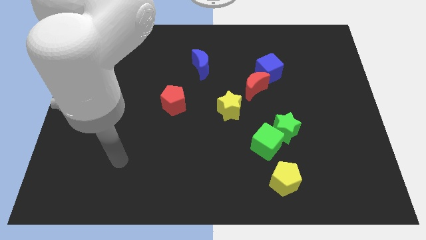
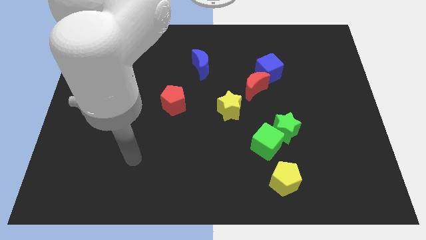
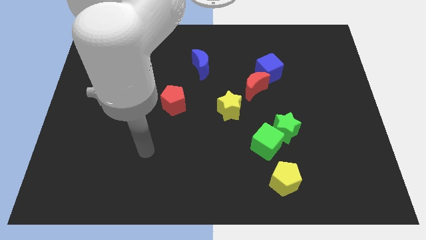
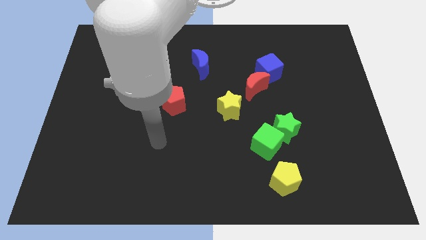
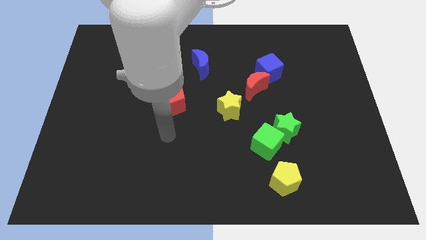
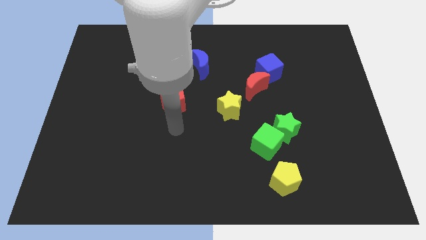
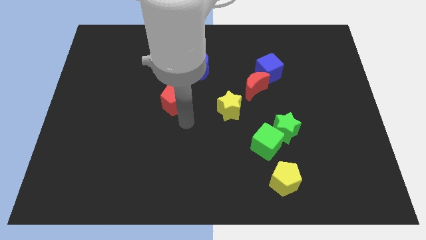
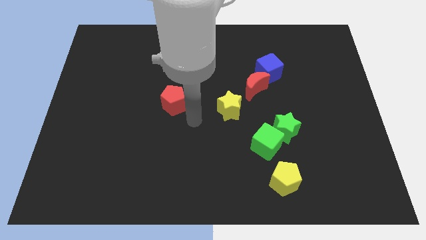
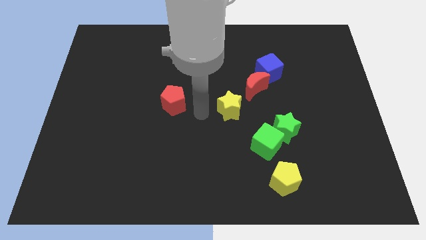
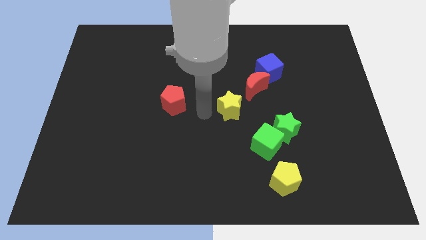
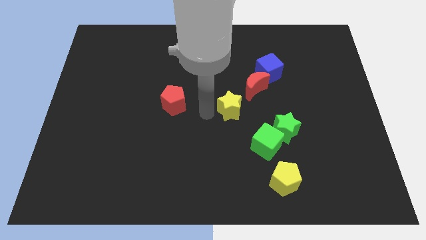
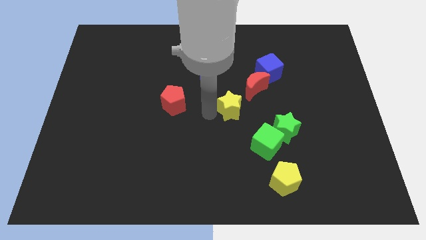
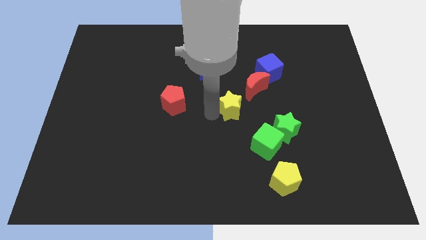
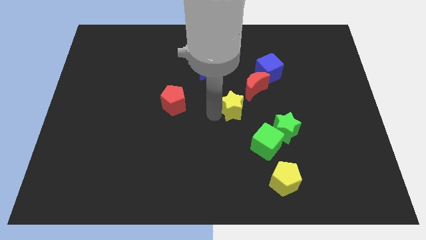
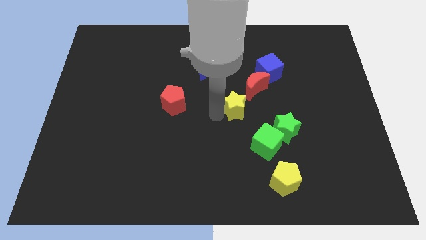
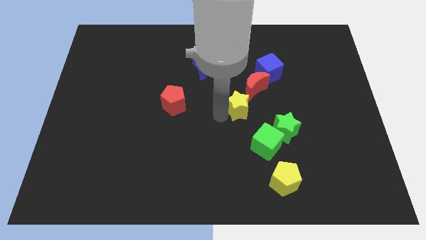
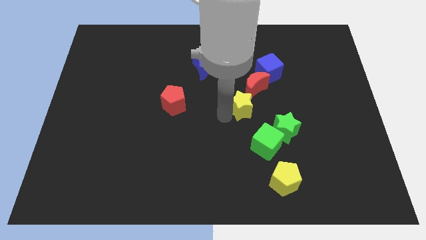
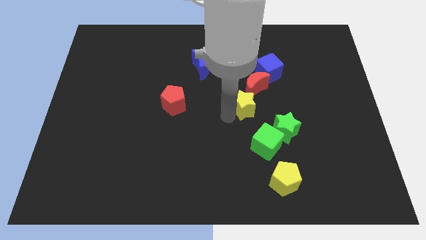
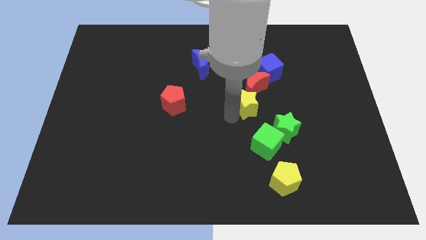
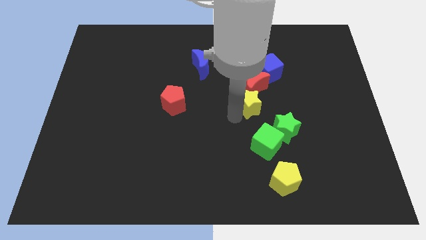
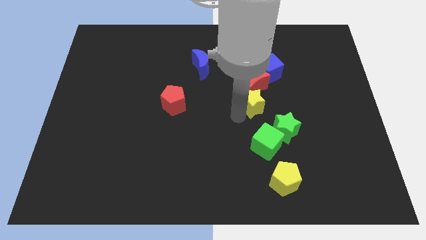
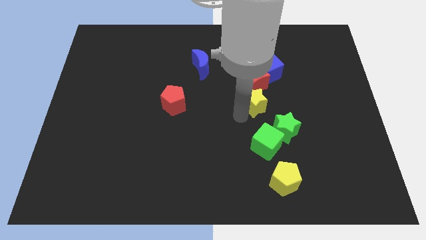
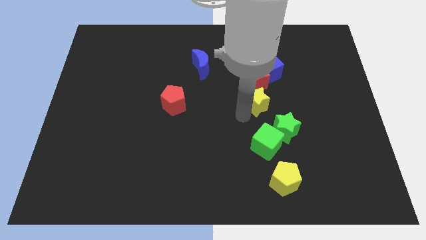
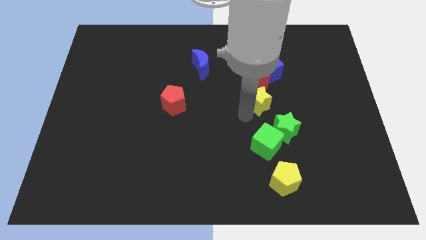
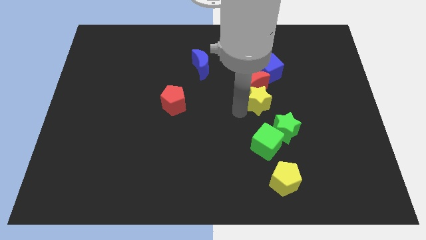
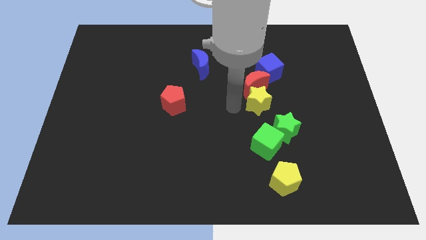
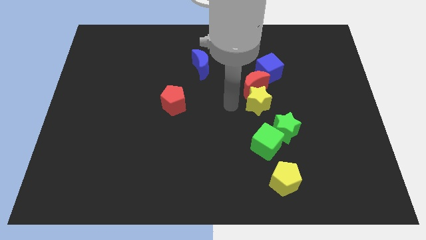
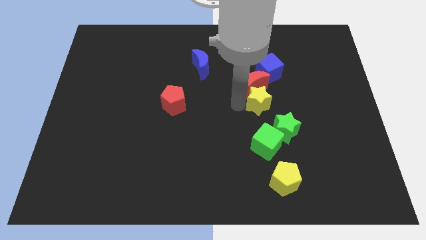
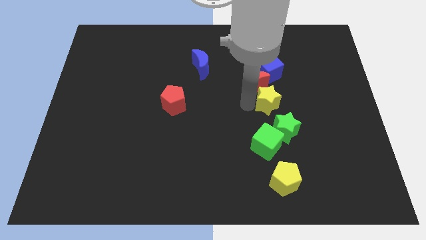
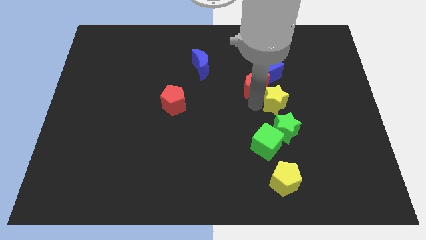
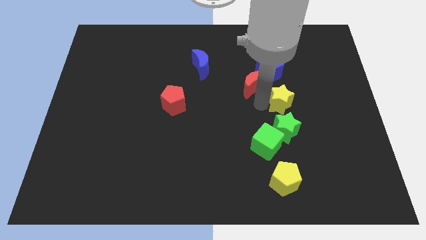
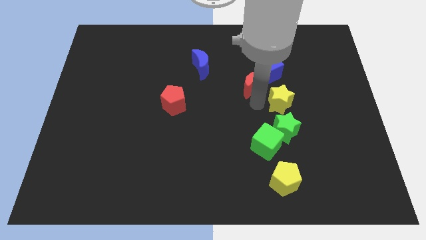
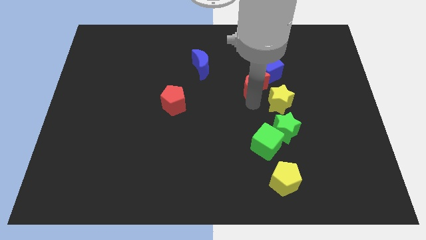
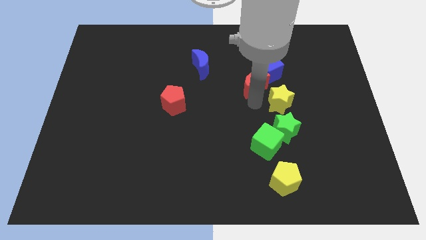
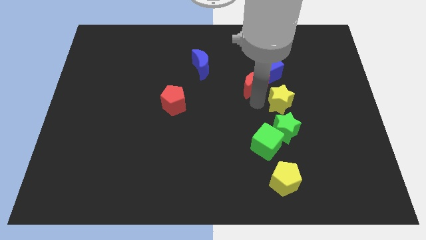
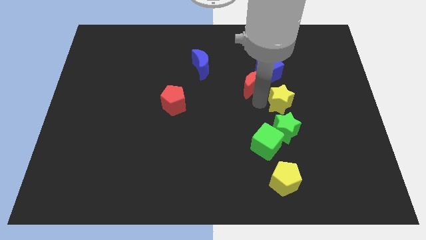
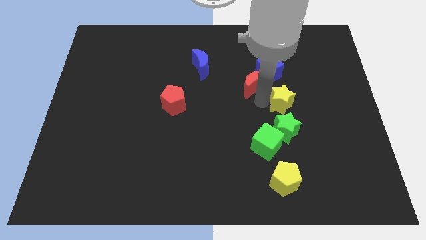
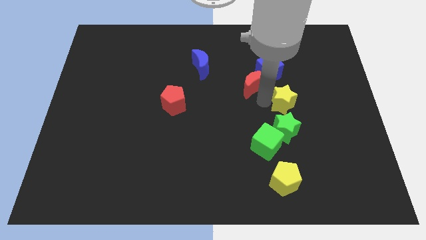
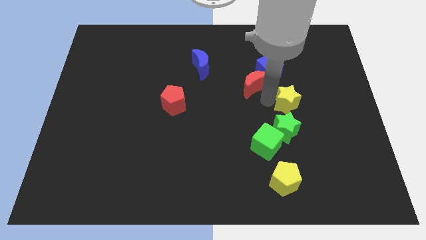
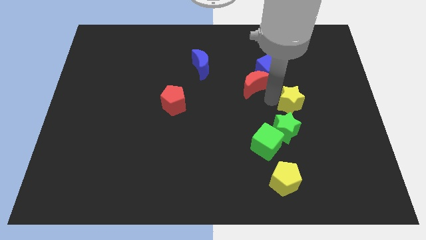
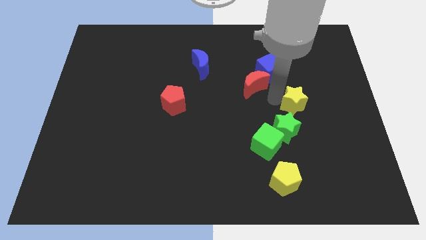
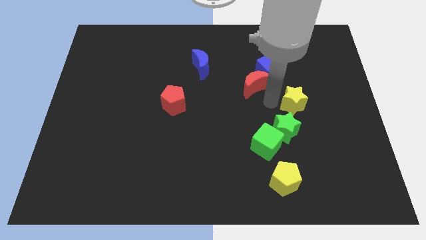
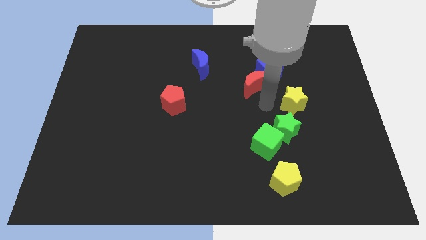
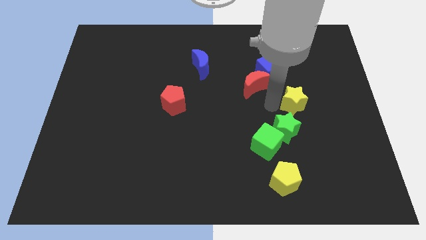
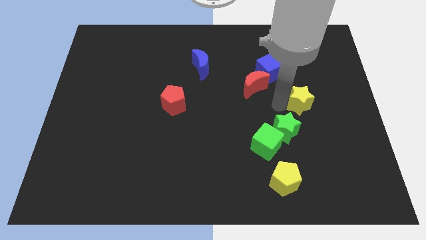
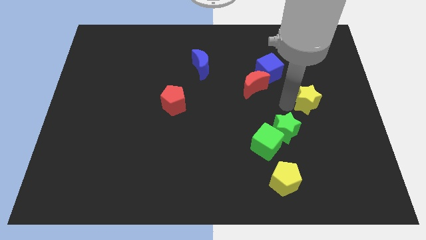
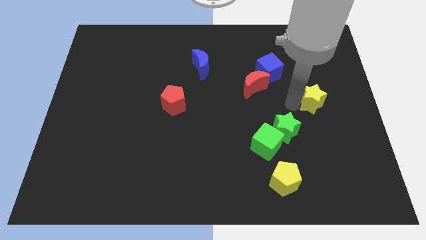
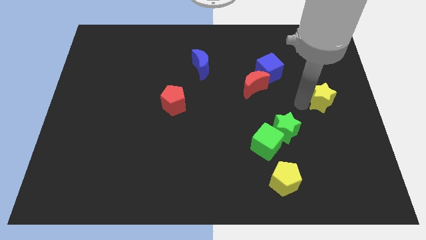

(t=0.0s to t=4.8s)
move the yellow star to the right side of the board

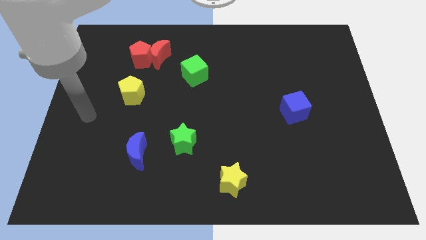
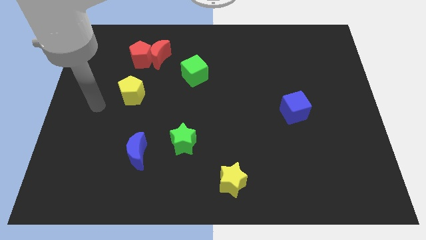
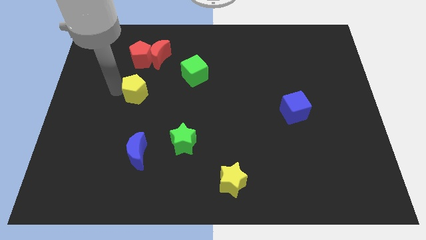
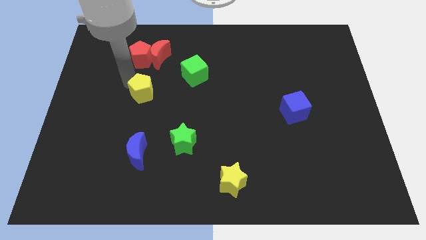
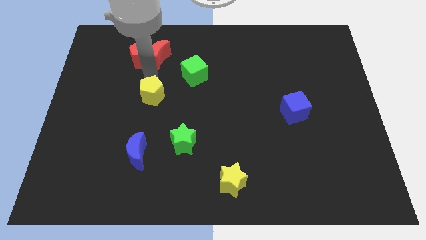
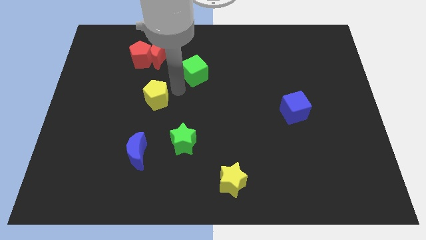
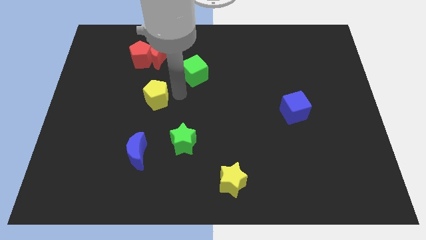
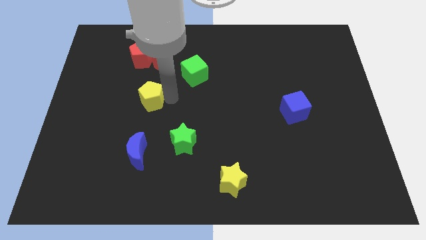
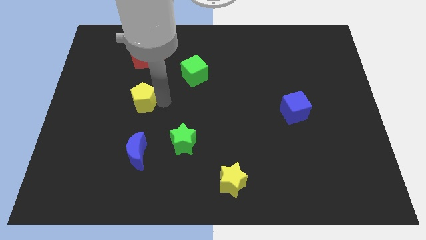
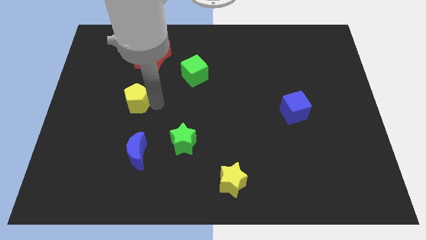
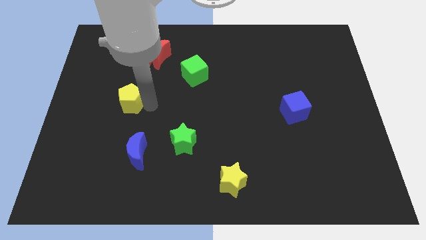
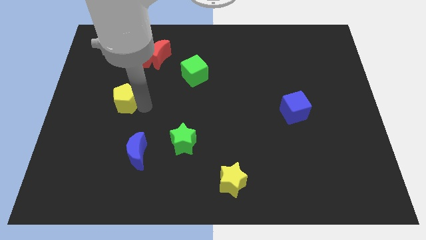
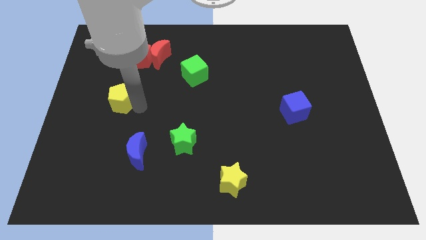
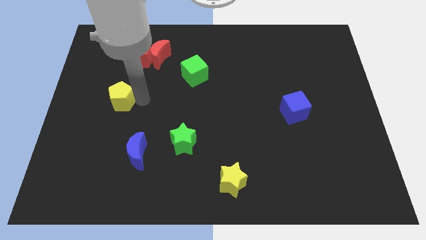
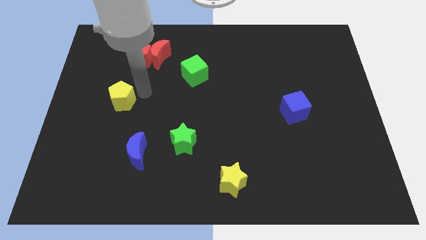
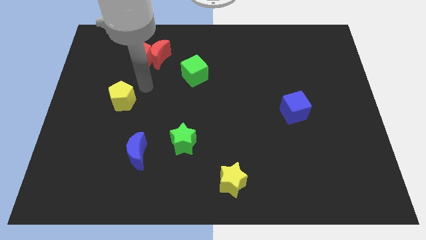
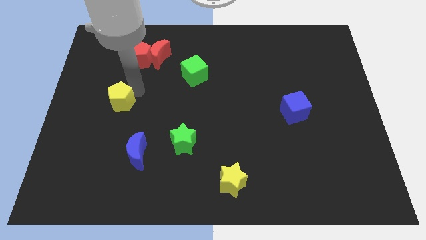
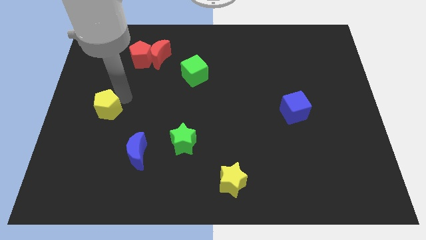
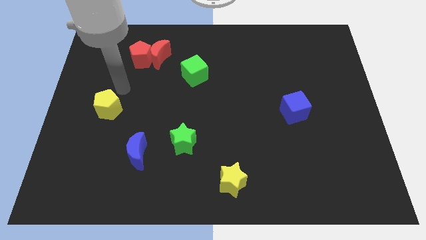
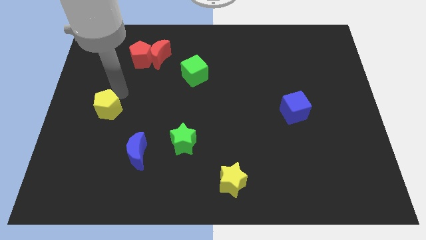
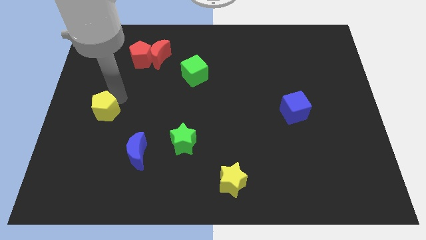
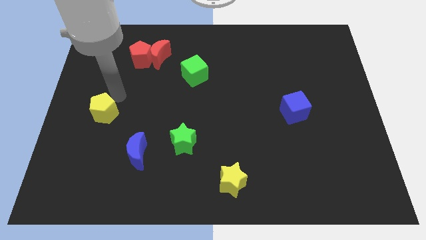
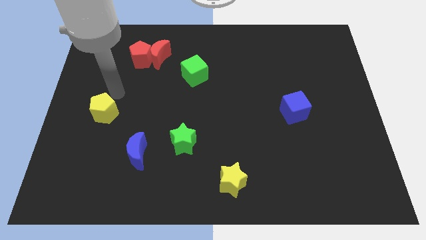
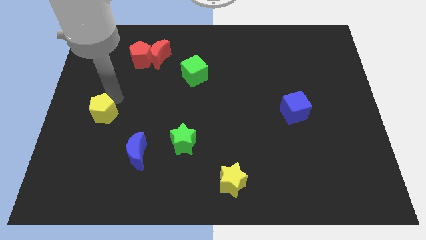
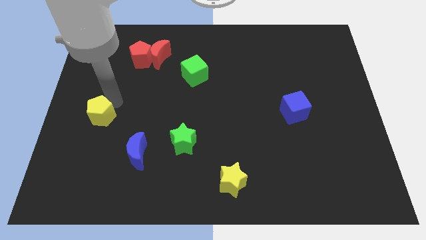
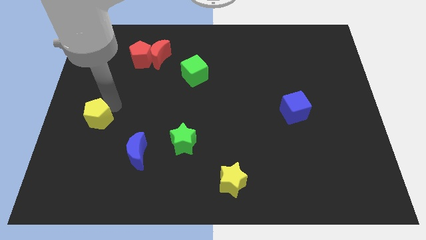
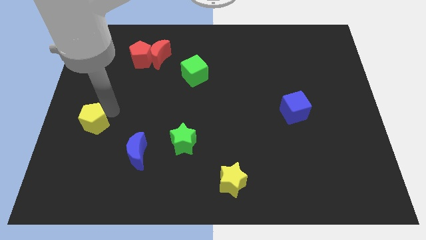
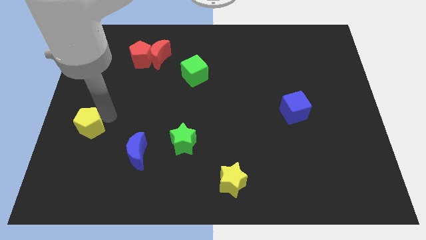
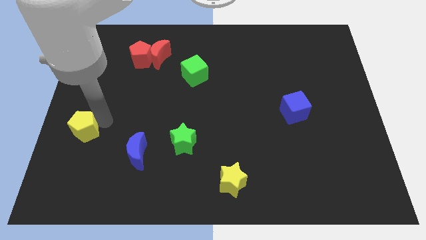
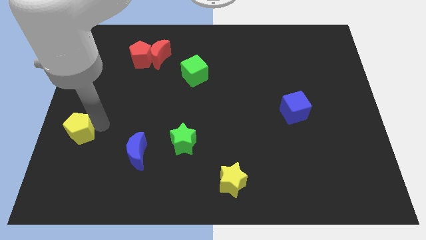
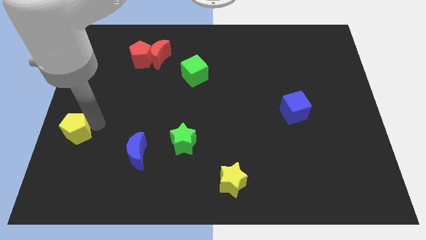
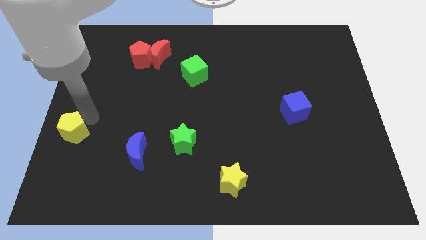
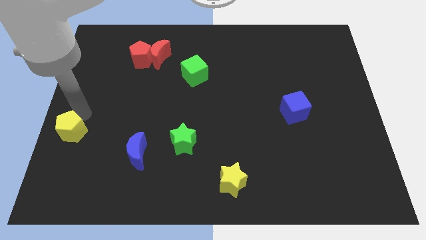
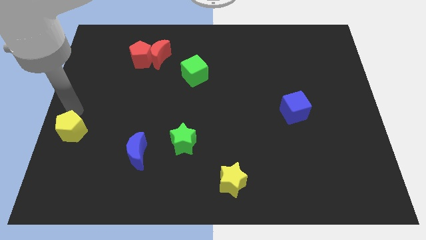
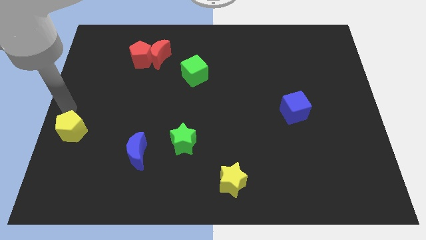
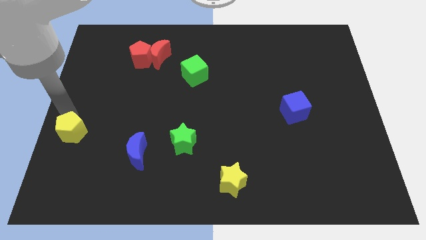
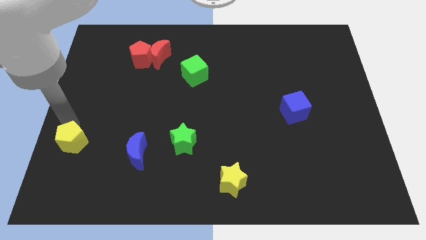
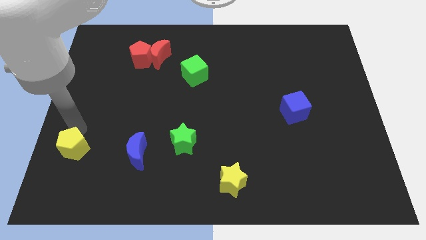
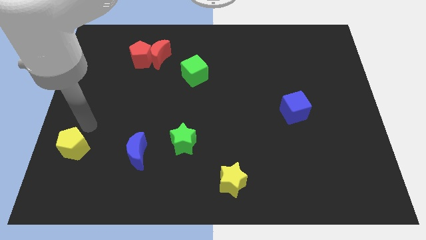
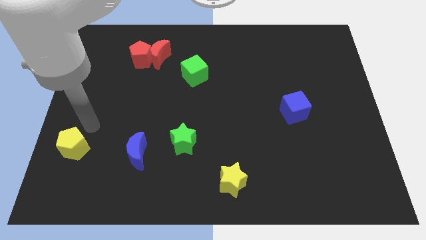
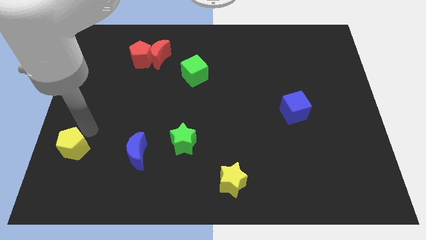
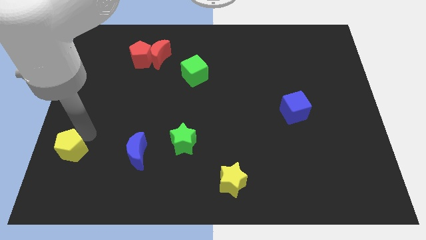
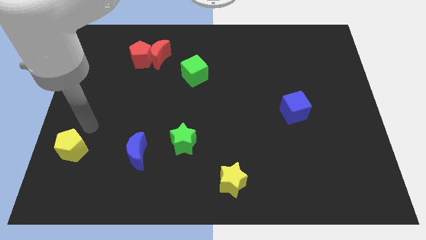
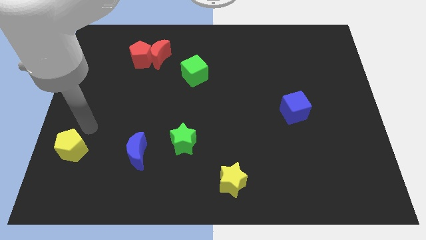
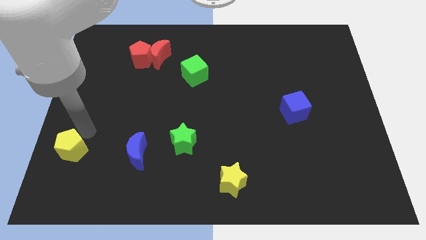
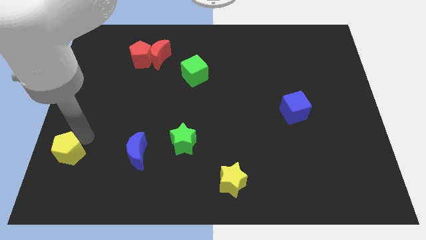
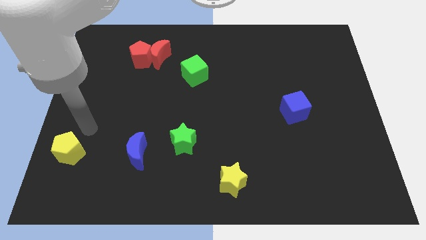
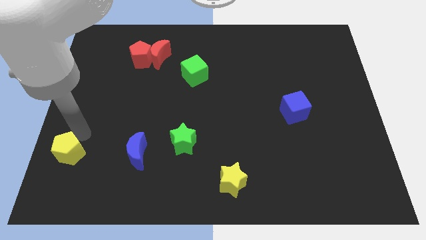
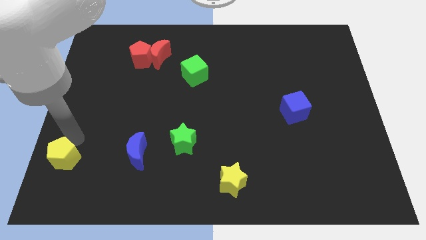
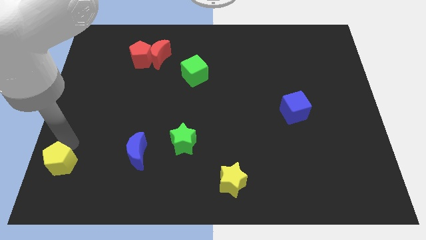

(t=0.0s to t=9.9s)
move the yellow pentagon to the bottom left corner
